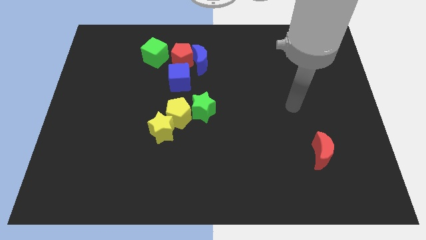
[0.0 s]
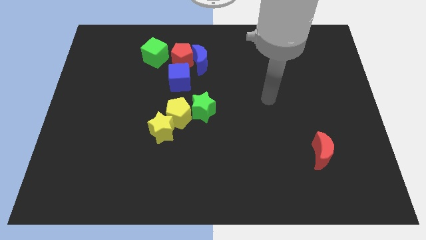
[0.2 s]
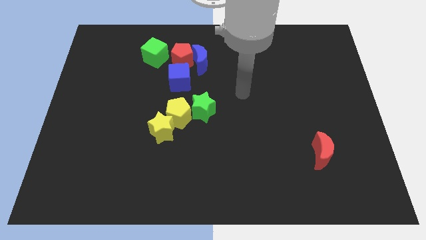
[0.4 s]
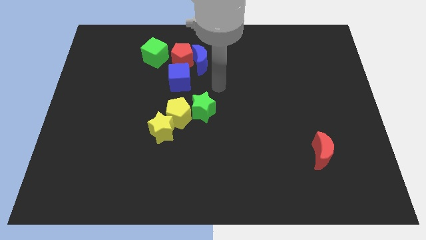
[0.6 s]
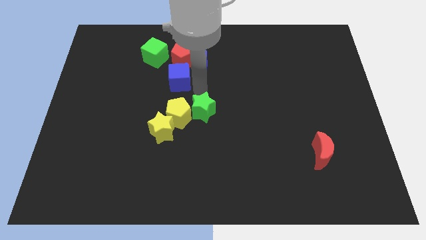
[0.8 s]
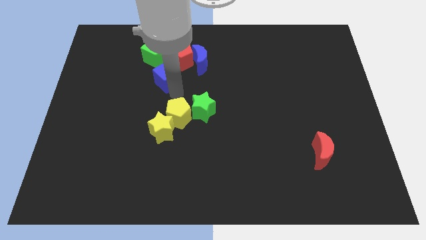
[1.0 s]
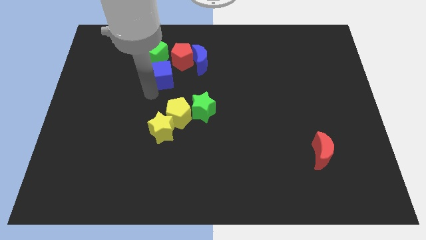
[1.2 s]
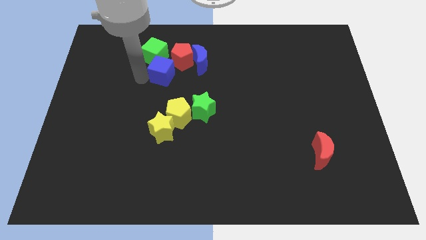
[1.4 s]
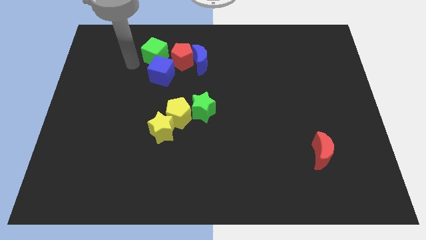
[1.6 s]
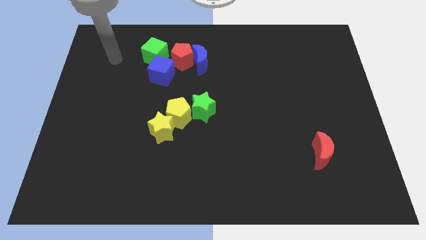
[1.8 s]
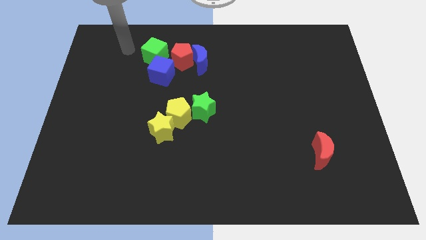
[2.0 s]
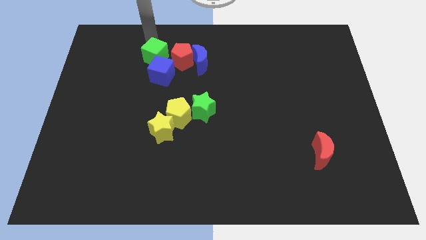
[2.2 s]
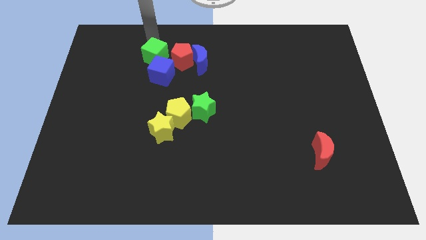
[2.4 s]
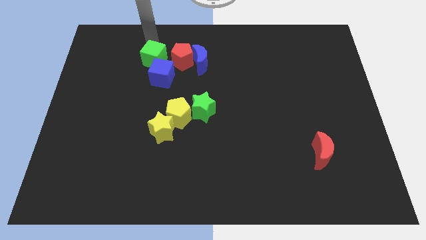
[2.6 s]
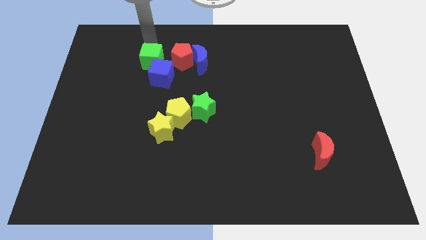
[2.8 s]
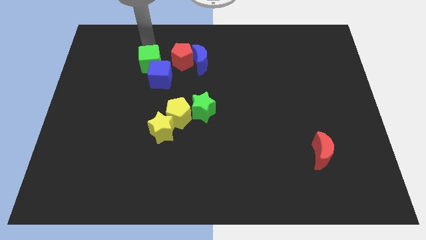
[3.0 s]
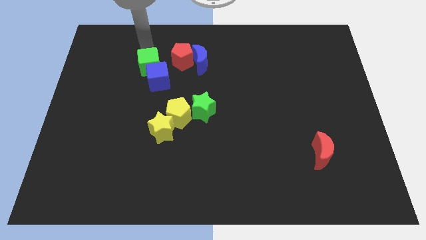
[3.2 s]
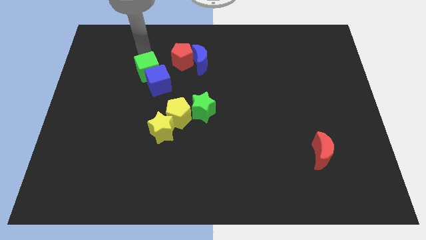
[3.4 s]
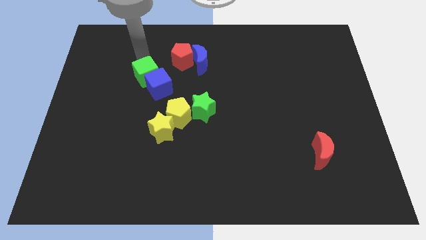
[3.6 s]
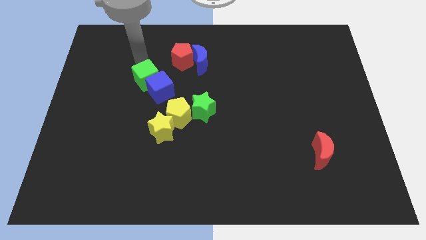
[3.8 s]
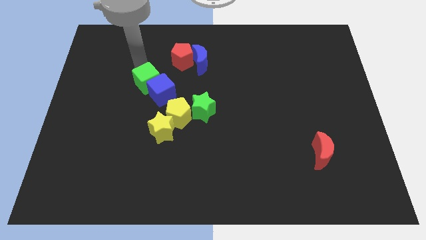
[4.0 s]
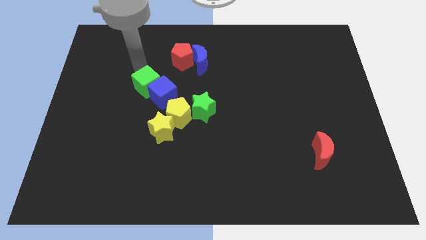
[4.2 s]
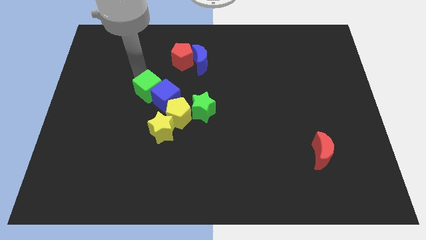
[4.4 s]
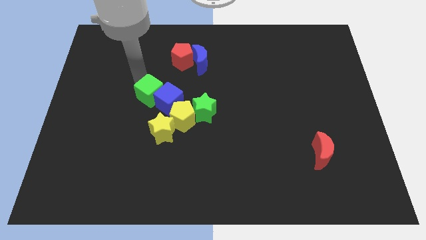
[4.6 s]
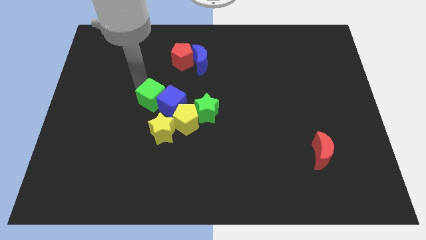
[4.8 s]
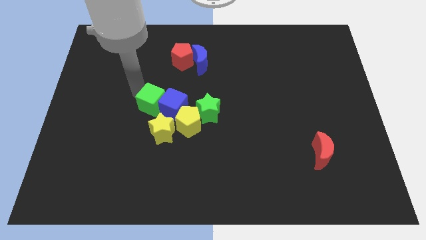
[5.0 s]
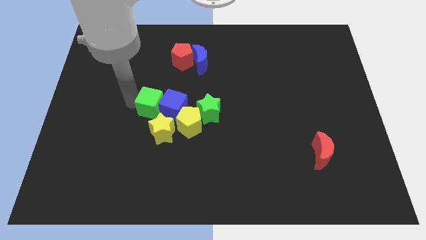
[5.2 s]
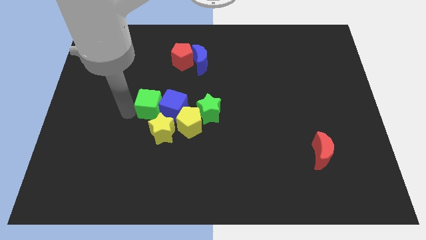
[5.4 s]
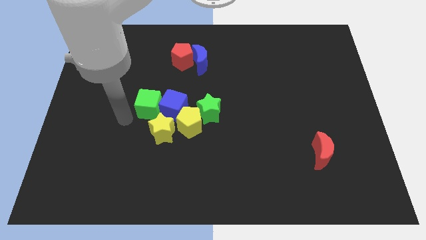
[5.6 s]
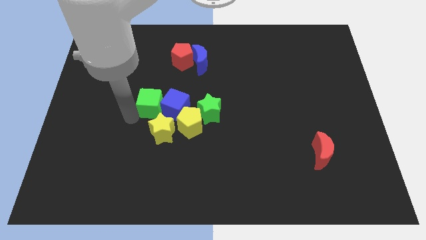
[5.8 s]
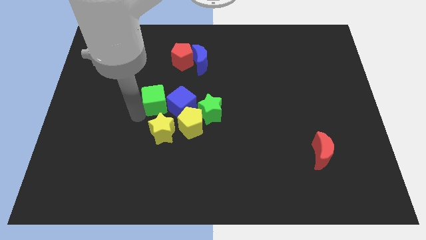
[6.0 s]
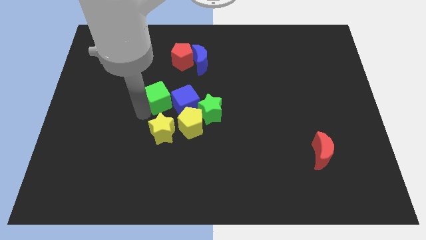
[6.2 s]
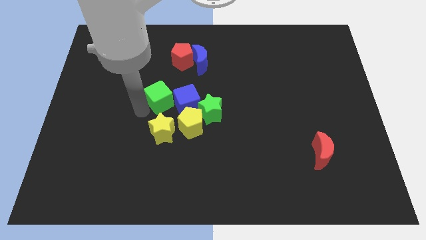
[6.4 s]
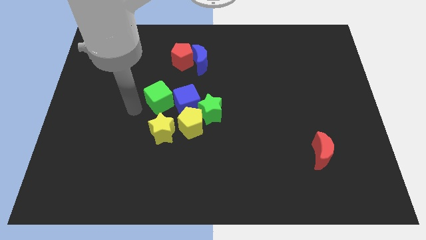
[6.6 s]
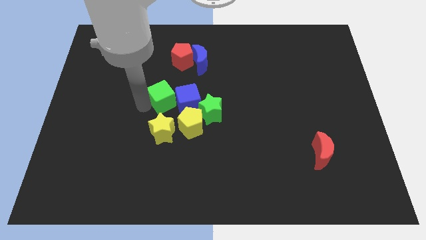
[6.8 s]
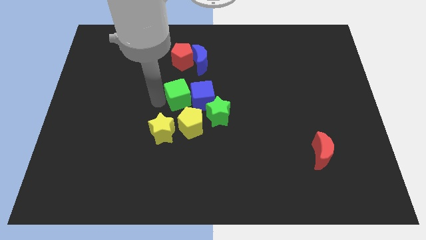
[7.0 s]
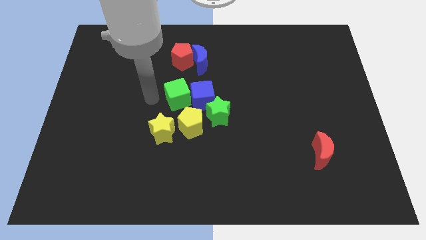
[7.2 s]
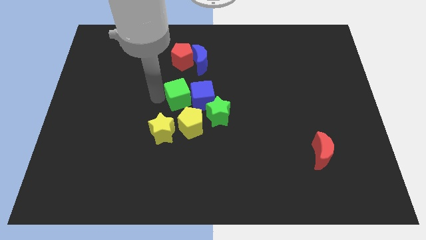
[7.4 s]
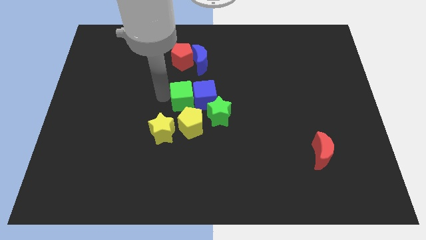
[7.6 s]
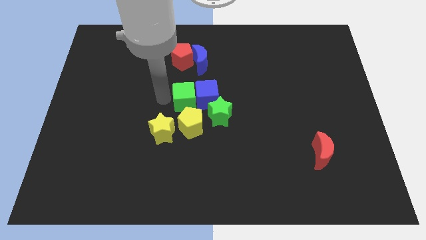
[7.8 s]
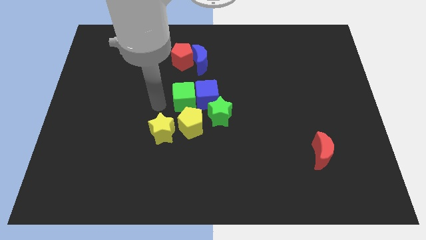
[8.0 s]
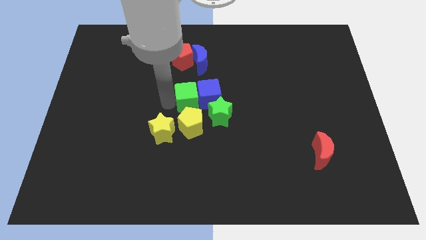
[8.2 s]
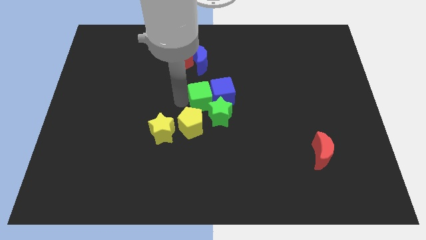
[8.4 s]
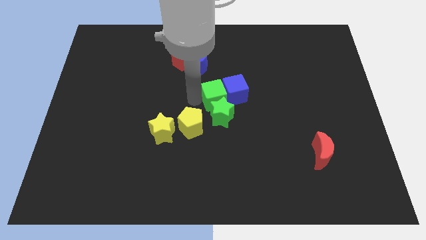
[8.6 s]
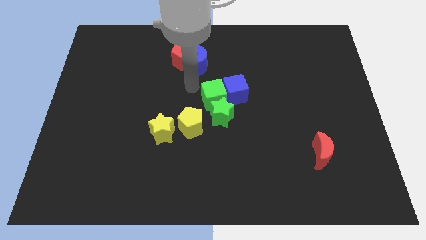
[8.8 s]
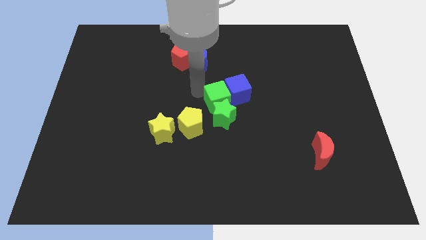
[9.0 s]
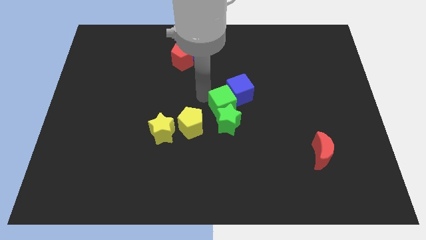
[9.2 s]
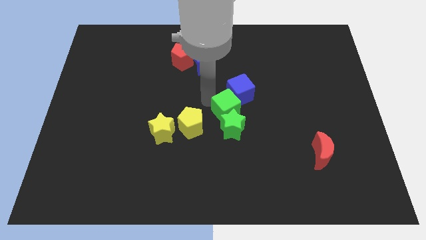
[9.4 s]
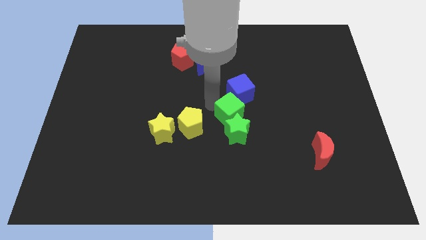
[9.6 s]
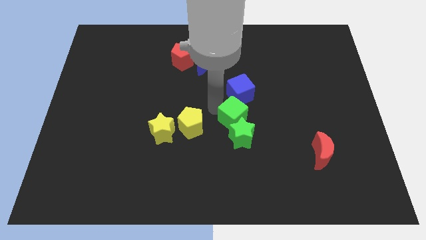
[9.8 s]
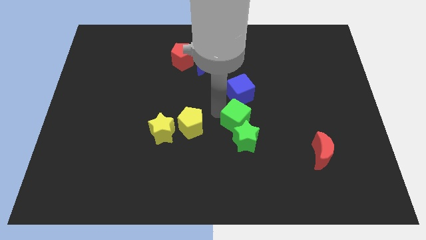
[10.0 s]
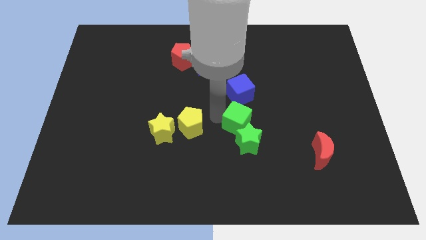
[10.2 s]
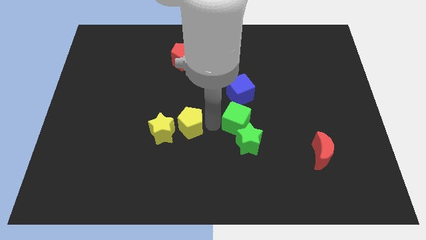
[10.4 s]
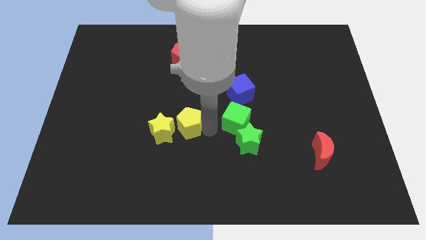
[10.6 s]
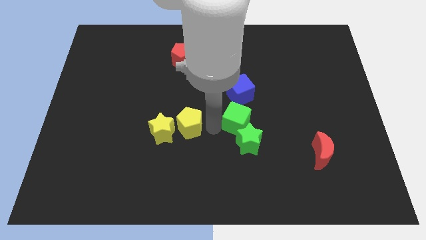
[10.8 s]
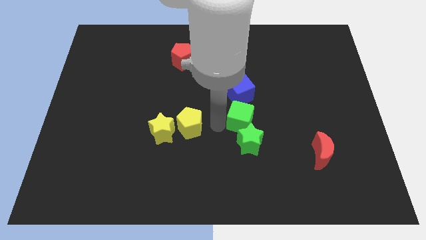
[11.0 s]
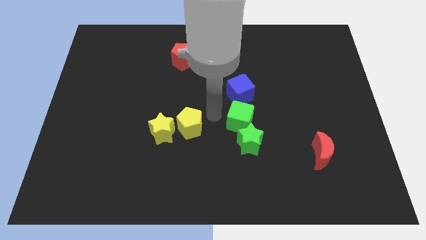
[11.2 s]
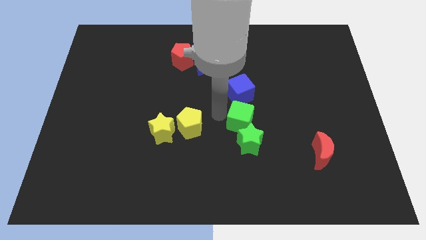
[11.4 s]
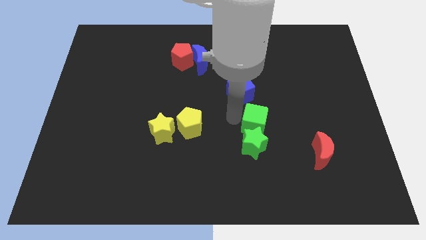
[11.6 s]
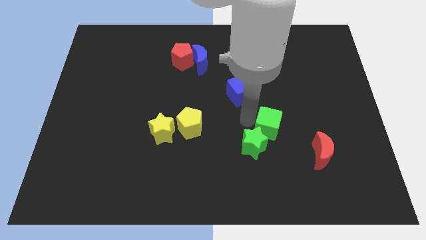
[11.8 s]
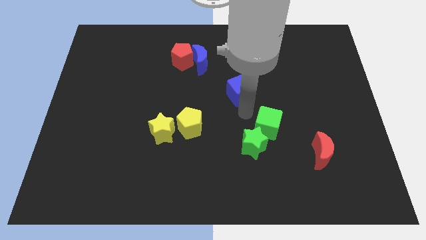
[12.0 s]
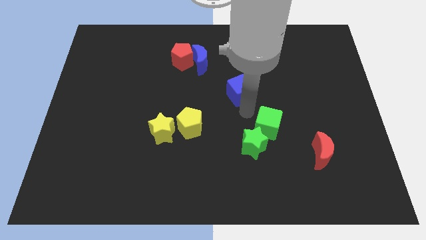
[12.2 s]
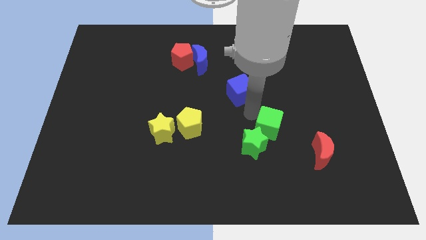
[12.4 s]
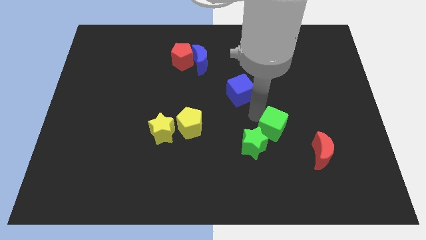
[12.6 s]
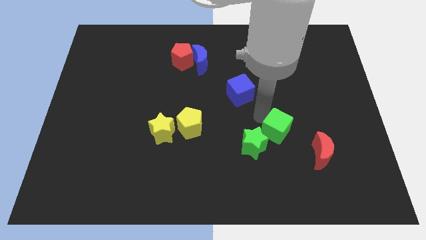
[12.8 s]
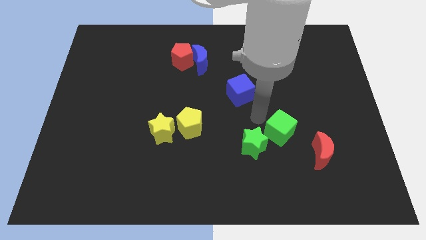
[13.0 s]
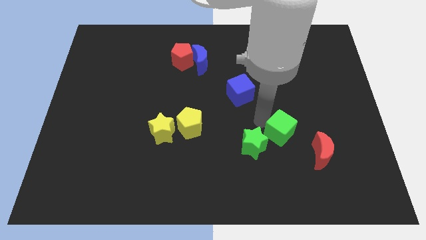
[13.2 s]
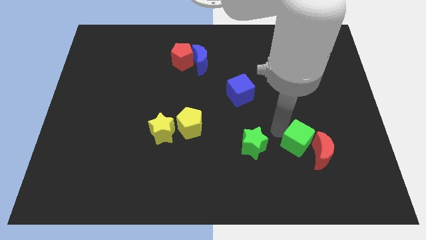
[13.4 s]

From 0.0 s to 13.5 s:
put the green cube next to the red moon

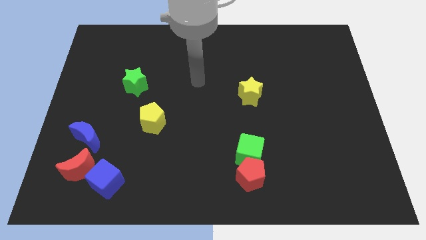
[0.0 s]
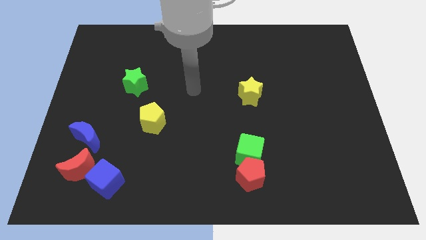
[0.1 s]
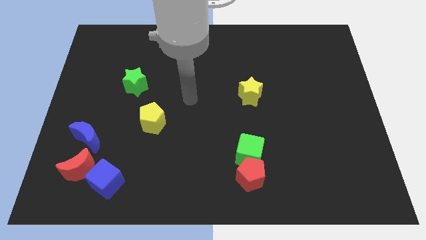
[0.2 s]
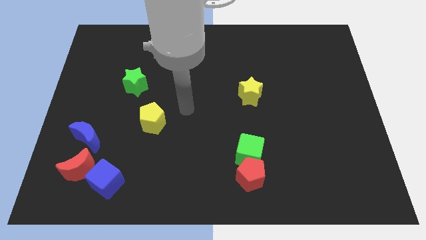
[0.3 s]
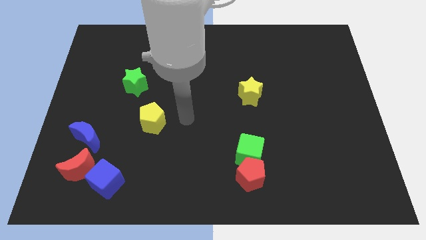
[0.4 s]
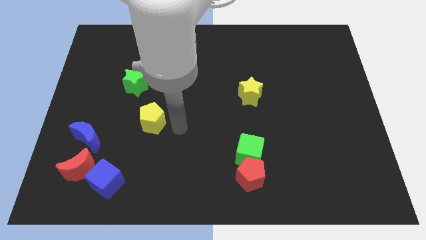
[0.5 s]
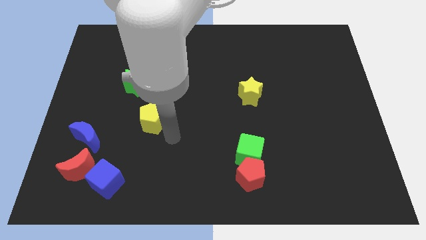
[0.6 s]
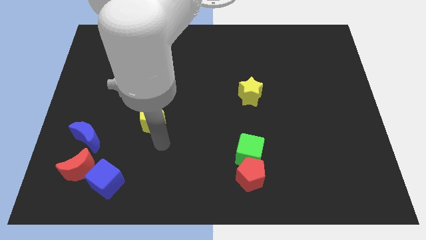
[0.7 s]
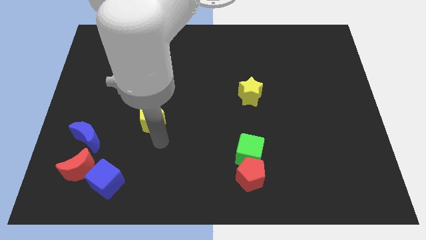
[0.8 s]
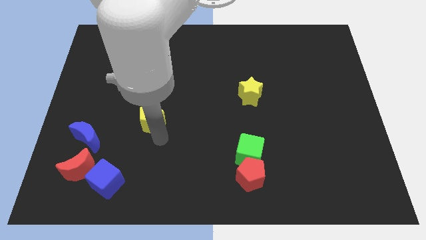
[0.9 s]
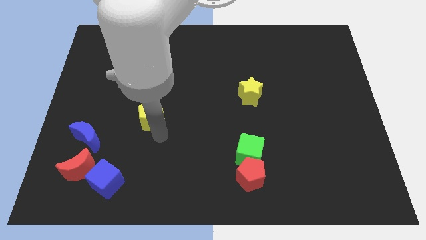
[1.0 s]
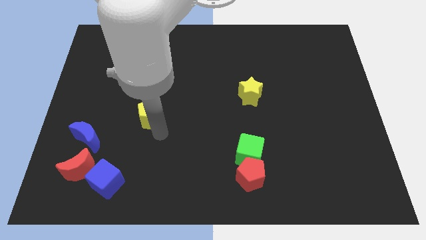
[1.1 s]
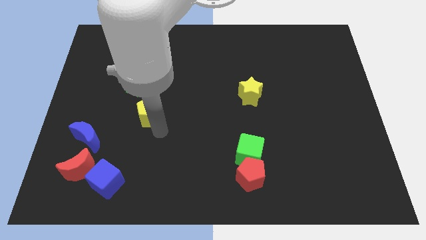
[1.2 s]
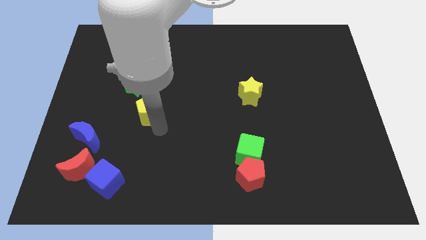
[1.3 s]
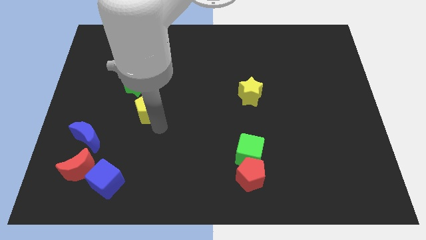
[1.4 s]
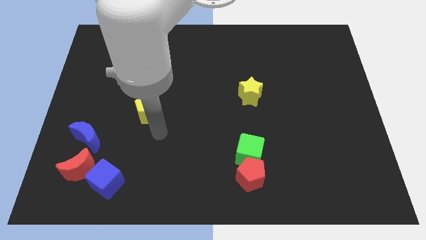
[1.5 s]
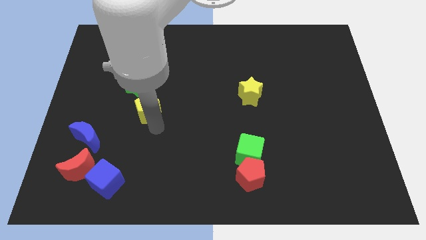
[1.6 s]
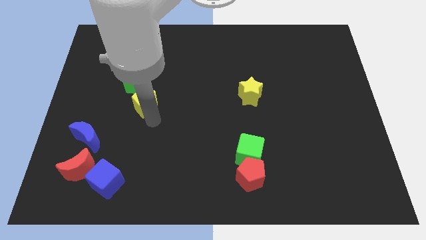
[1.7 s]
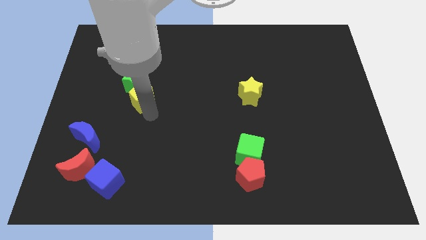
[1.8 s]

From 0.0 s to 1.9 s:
put the yellow pentagon towards the green star
